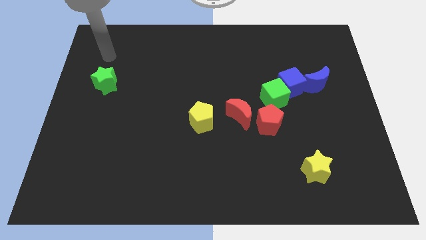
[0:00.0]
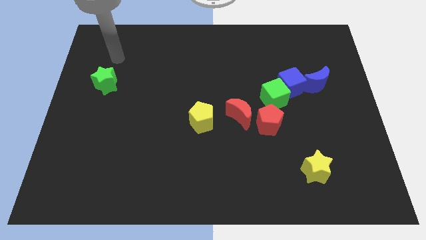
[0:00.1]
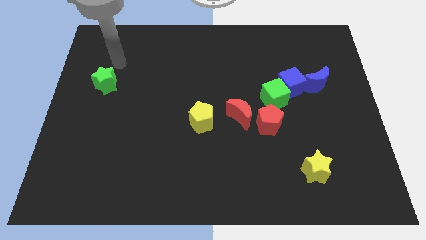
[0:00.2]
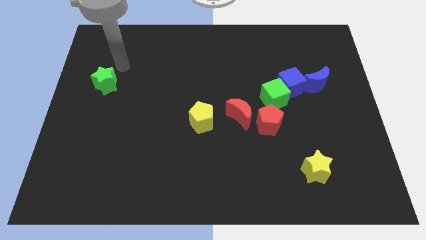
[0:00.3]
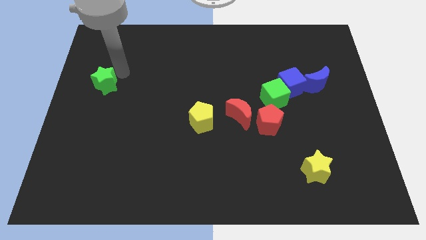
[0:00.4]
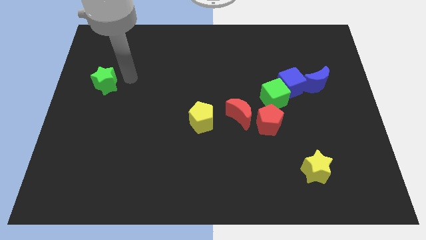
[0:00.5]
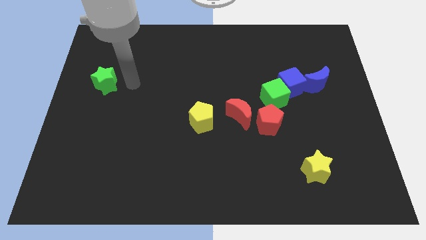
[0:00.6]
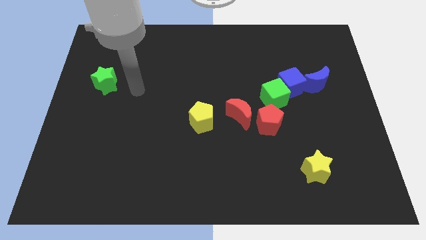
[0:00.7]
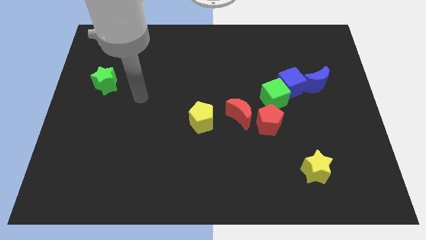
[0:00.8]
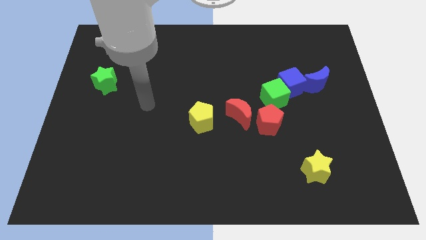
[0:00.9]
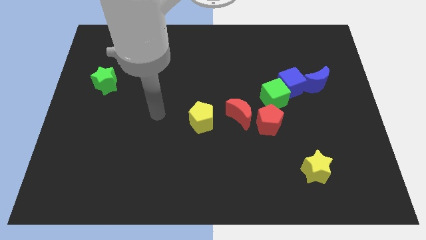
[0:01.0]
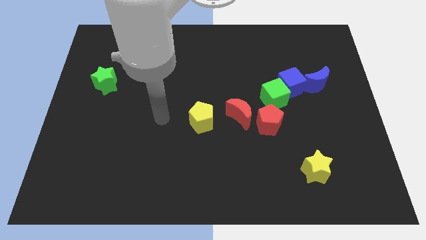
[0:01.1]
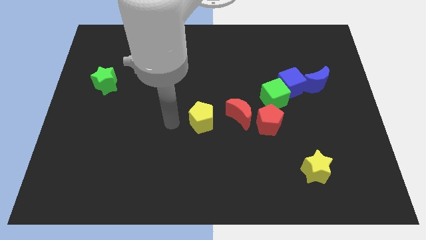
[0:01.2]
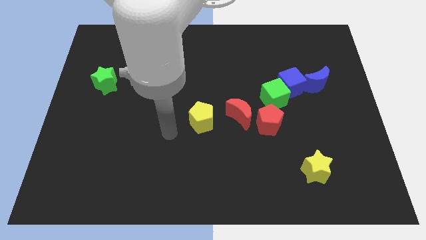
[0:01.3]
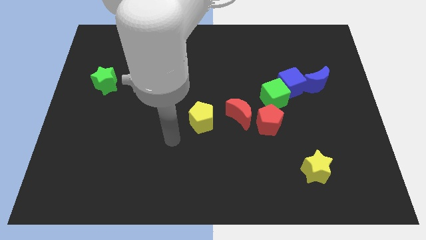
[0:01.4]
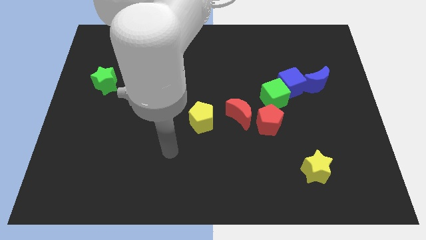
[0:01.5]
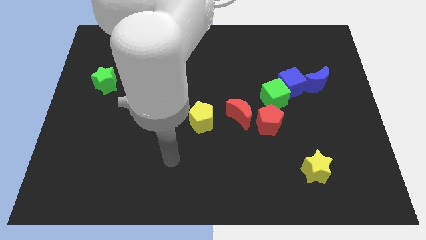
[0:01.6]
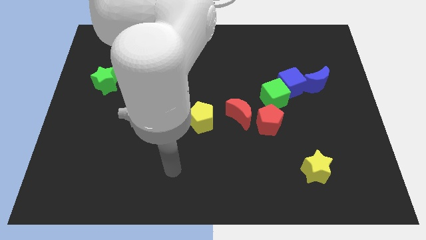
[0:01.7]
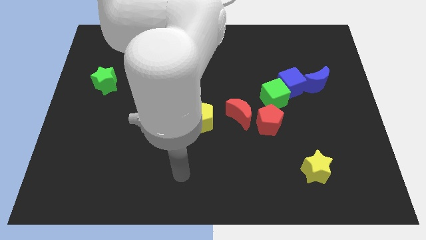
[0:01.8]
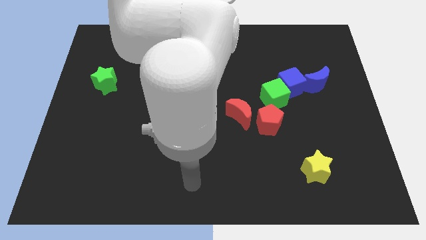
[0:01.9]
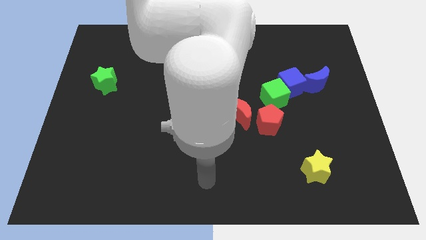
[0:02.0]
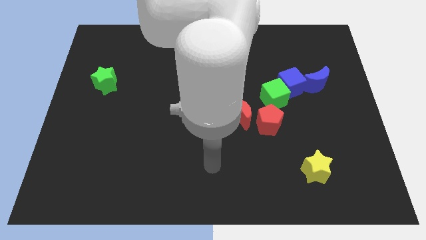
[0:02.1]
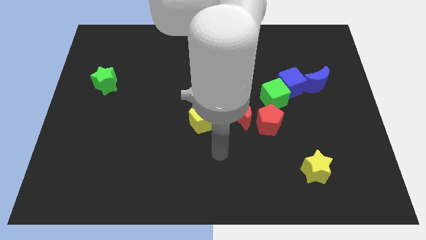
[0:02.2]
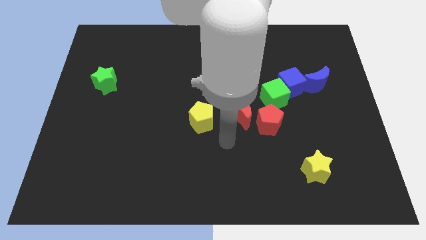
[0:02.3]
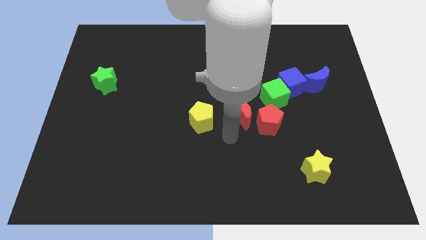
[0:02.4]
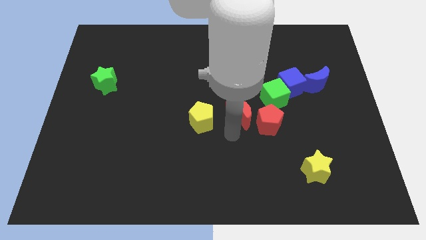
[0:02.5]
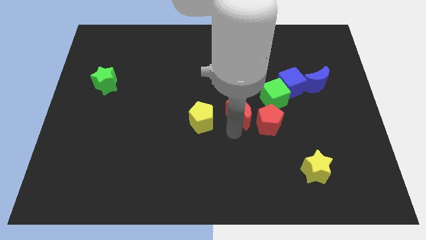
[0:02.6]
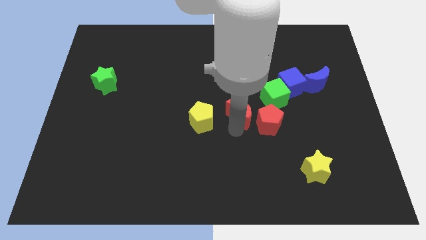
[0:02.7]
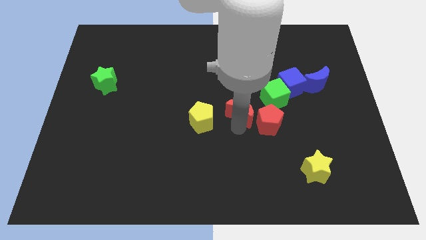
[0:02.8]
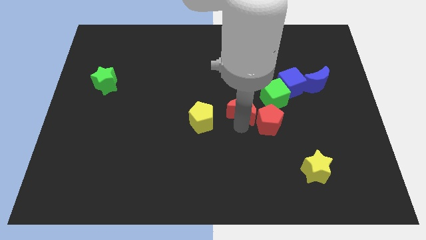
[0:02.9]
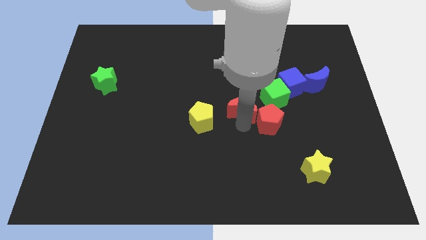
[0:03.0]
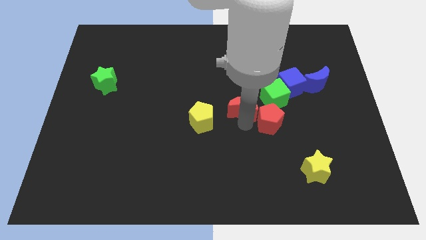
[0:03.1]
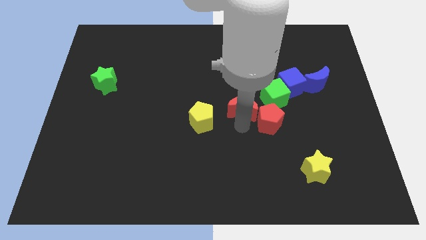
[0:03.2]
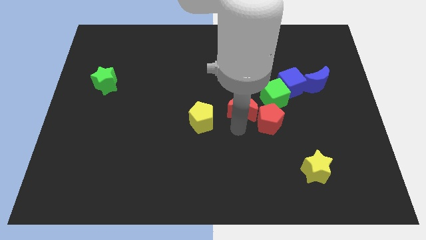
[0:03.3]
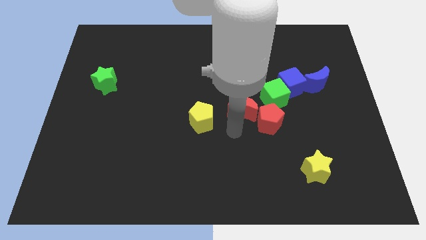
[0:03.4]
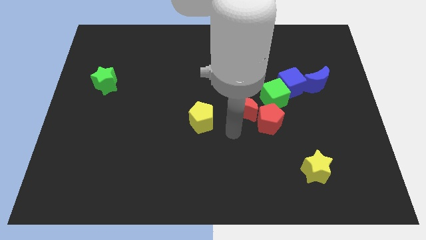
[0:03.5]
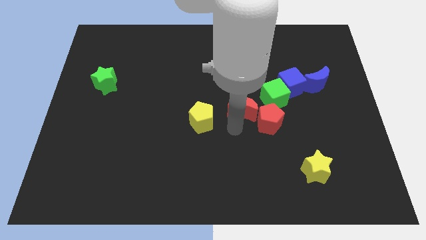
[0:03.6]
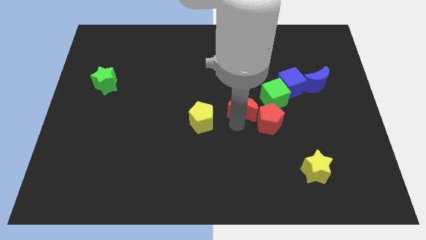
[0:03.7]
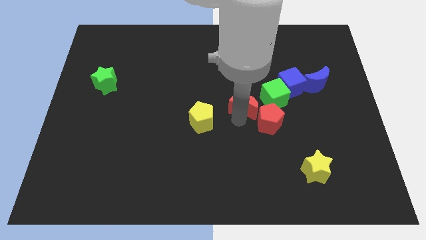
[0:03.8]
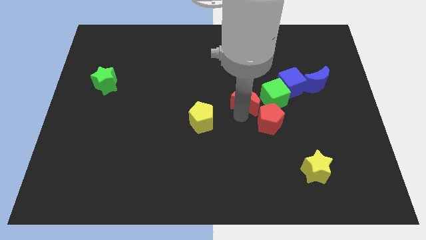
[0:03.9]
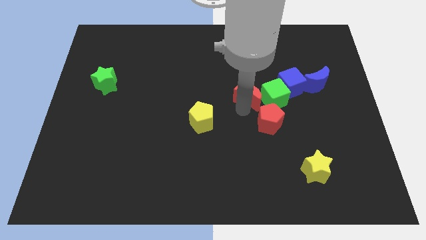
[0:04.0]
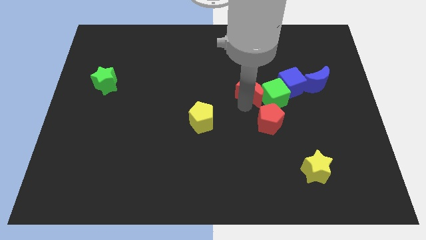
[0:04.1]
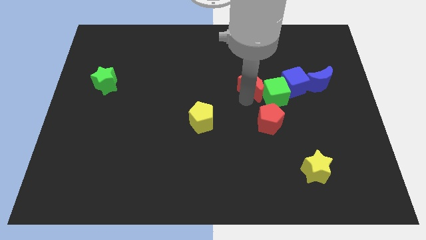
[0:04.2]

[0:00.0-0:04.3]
slightly slide the red moon upwards and then to the right

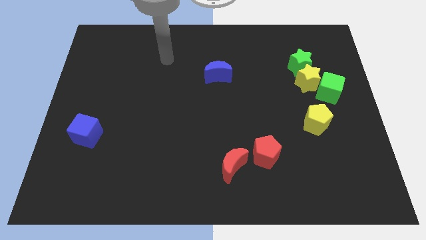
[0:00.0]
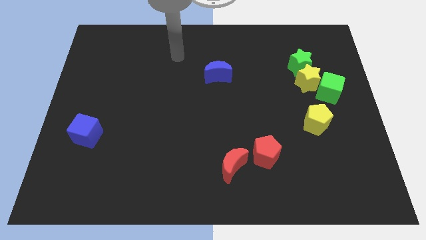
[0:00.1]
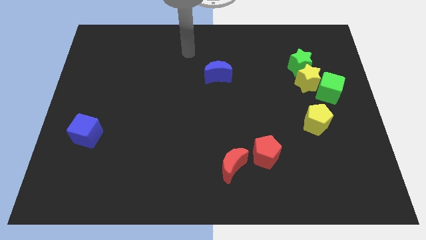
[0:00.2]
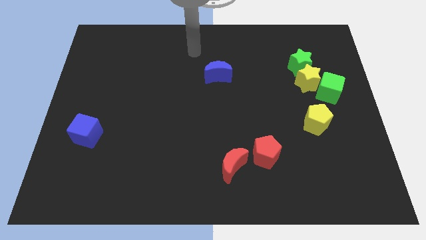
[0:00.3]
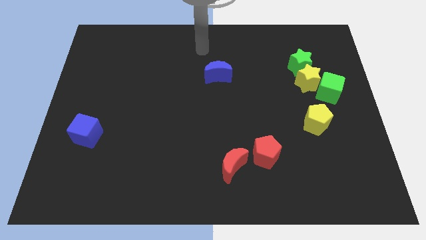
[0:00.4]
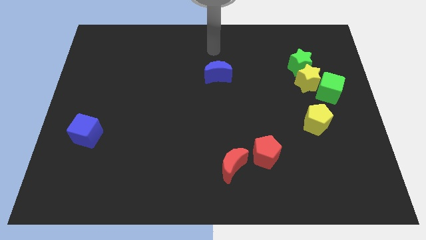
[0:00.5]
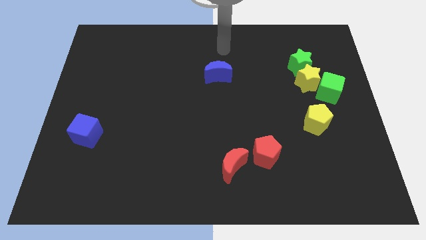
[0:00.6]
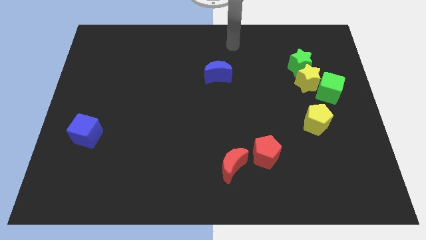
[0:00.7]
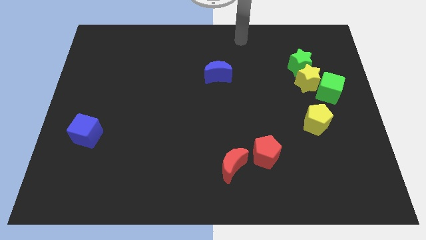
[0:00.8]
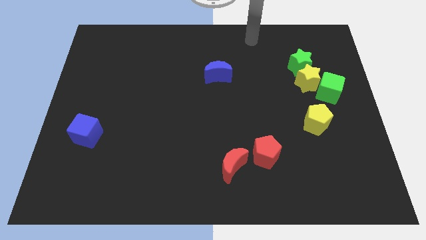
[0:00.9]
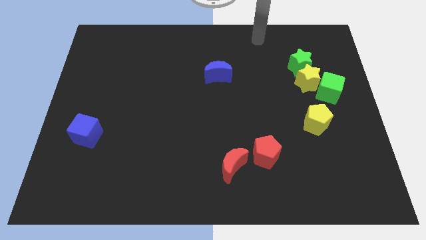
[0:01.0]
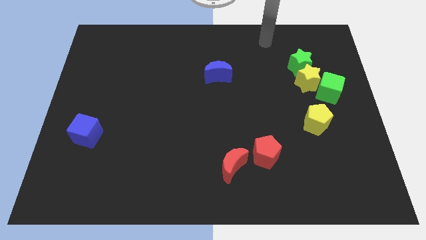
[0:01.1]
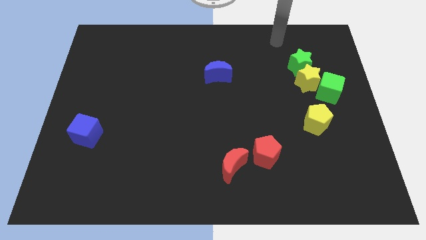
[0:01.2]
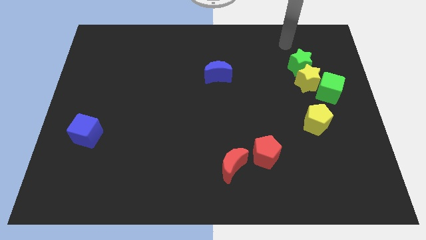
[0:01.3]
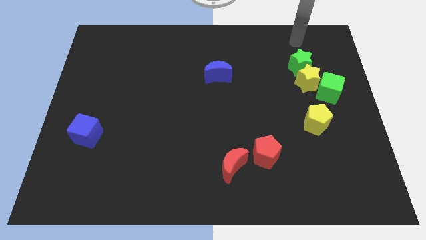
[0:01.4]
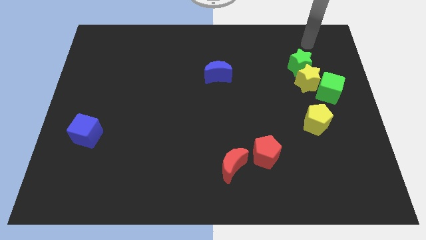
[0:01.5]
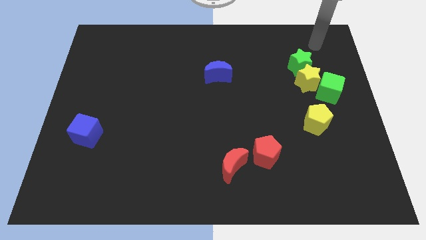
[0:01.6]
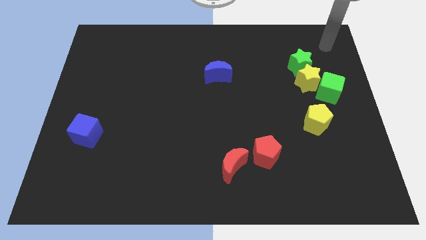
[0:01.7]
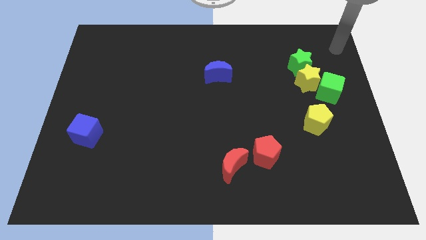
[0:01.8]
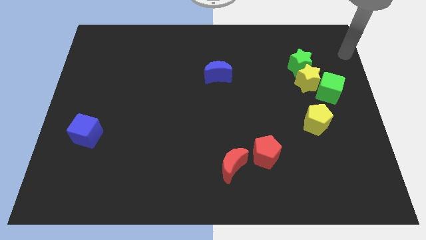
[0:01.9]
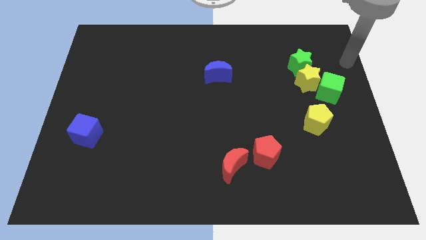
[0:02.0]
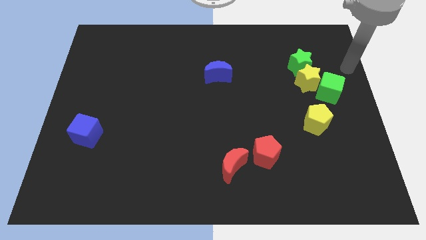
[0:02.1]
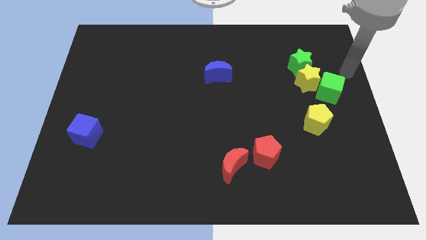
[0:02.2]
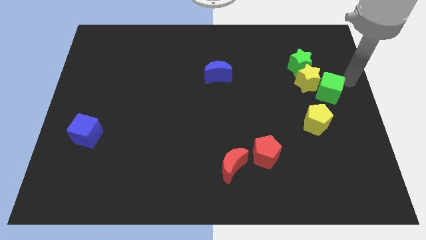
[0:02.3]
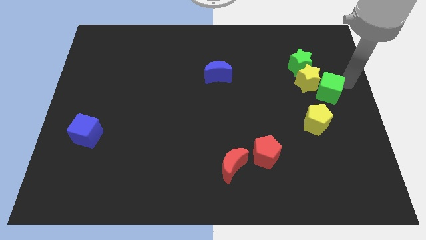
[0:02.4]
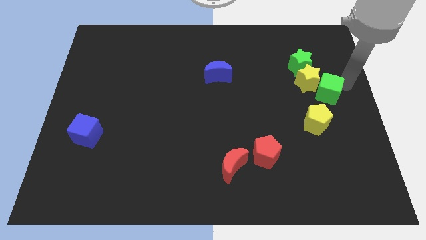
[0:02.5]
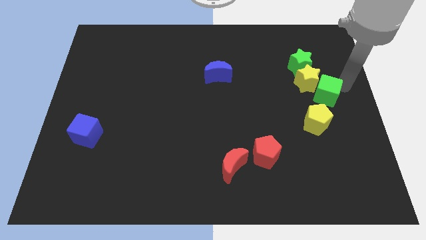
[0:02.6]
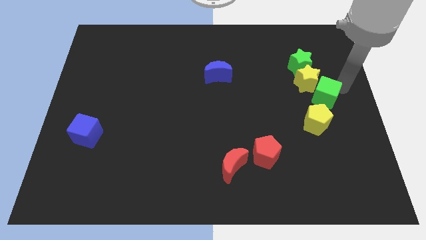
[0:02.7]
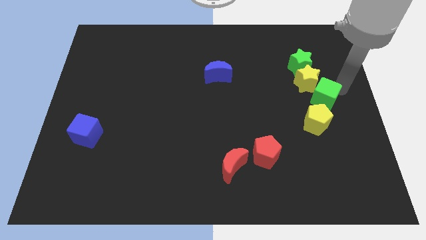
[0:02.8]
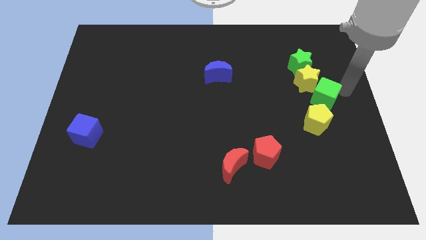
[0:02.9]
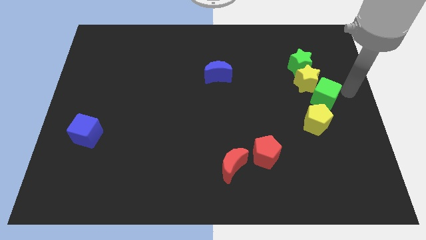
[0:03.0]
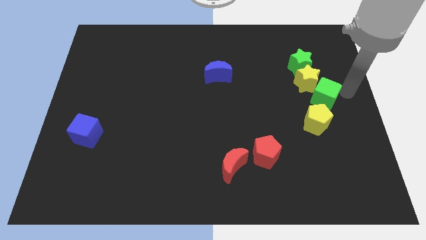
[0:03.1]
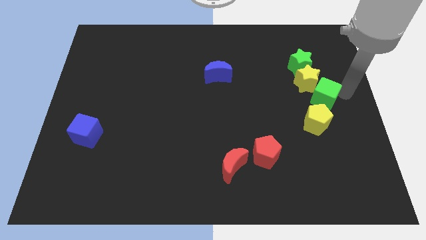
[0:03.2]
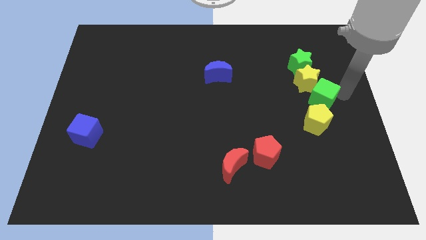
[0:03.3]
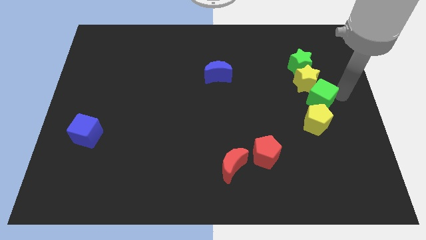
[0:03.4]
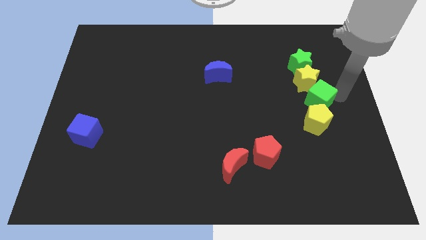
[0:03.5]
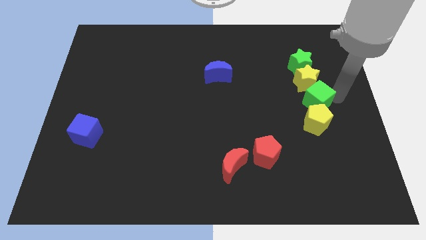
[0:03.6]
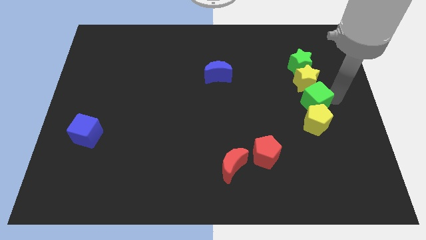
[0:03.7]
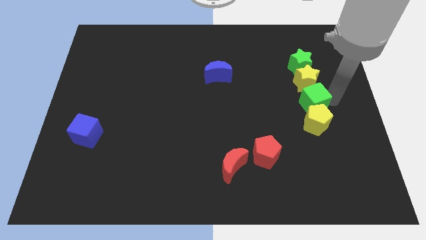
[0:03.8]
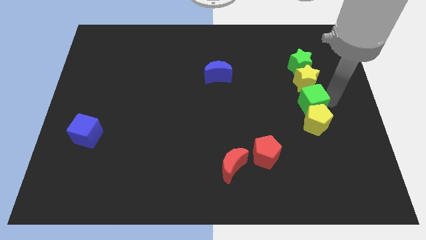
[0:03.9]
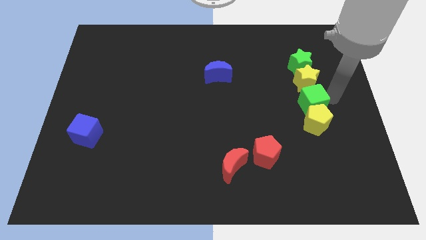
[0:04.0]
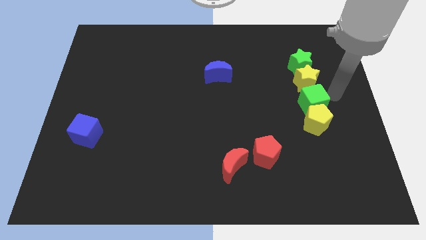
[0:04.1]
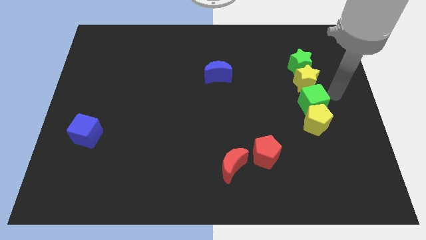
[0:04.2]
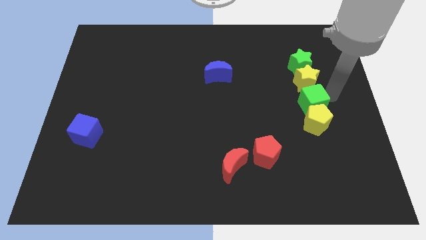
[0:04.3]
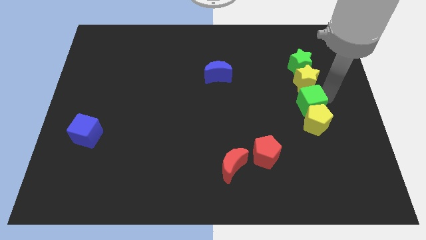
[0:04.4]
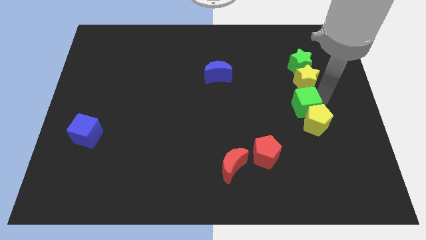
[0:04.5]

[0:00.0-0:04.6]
slightly push the green cube down and then to the left
